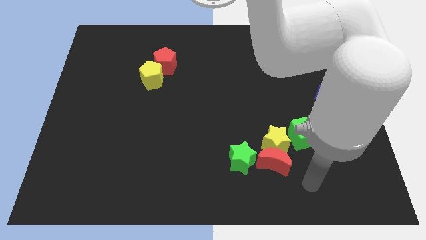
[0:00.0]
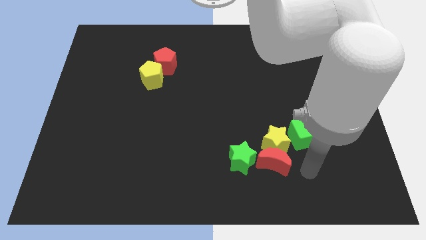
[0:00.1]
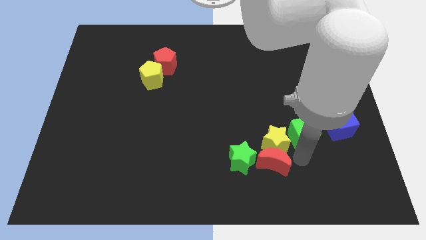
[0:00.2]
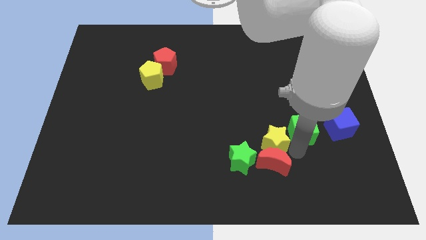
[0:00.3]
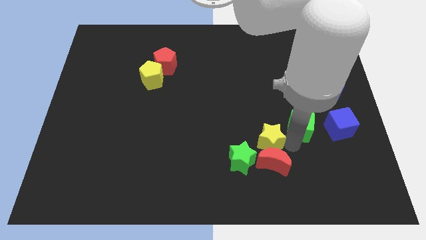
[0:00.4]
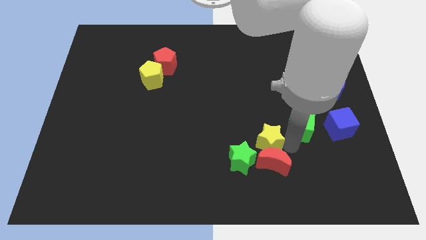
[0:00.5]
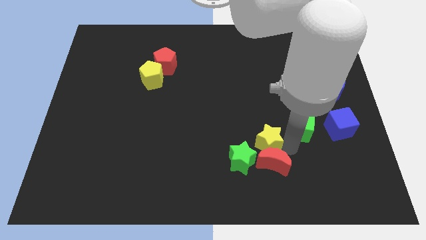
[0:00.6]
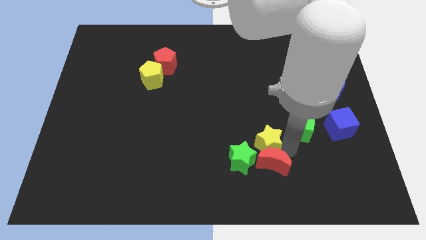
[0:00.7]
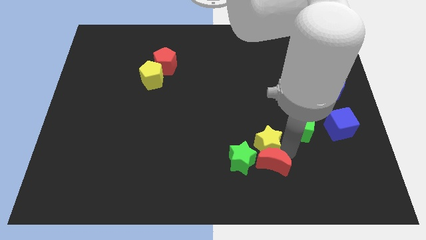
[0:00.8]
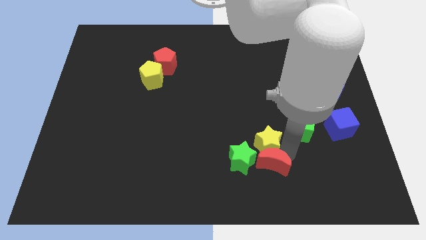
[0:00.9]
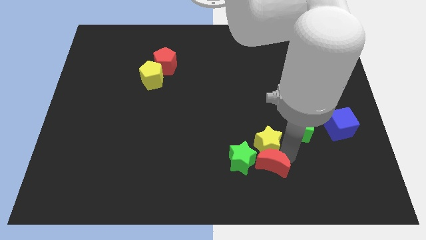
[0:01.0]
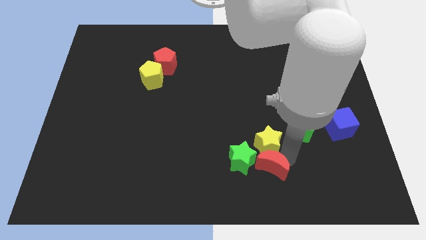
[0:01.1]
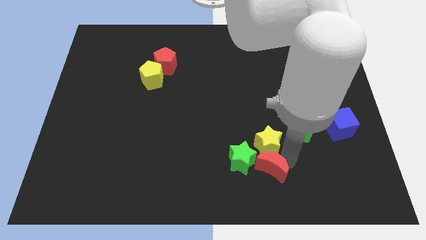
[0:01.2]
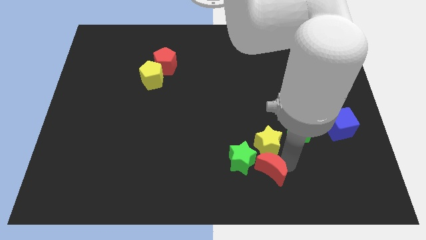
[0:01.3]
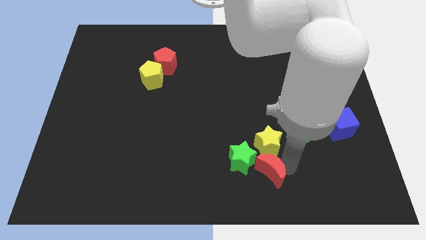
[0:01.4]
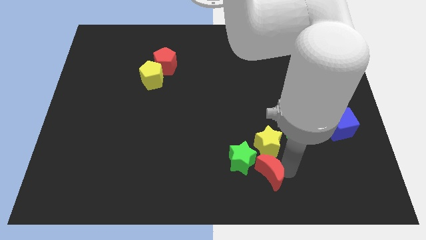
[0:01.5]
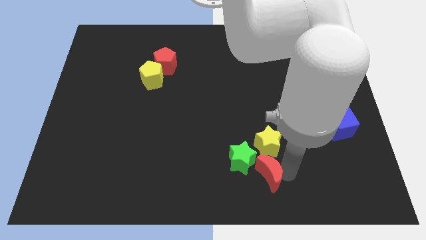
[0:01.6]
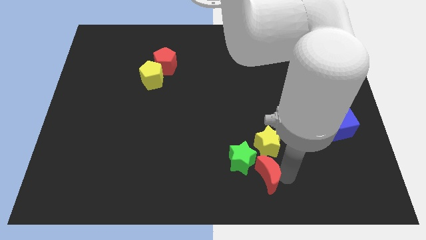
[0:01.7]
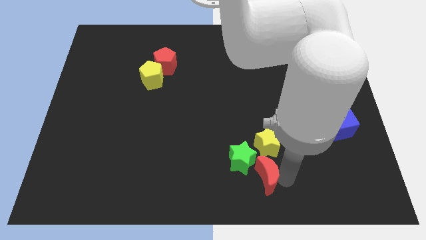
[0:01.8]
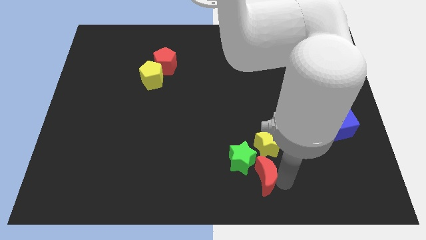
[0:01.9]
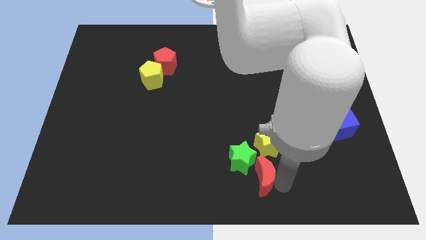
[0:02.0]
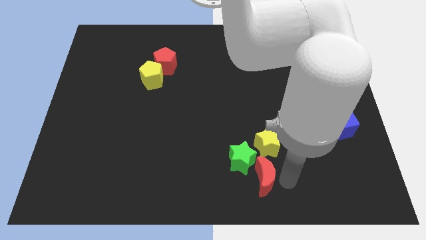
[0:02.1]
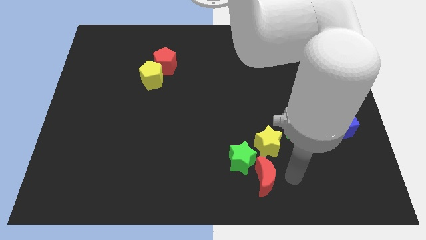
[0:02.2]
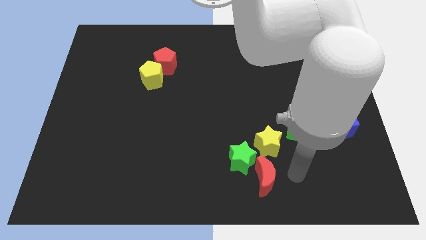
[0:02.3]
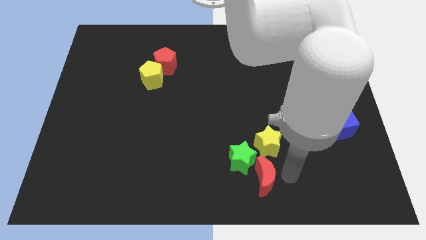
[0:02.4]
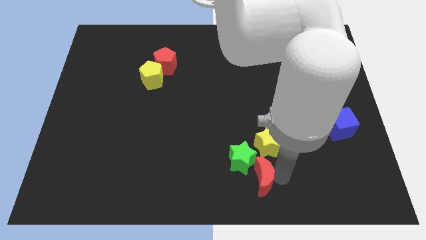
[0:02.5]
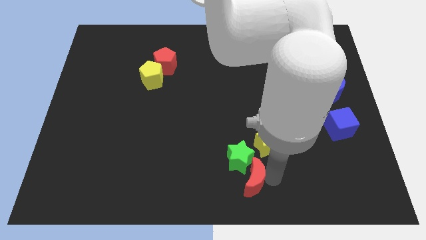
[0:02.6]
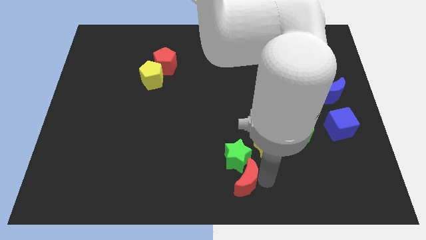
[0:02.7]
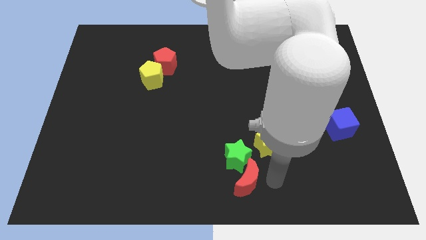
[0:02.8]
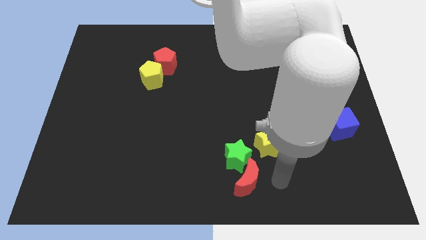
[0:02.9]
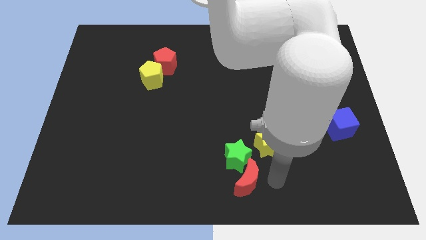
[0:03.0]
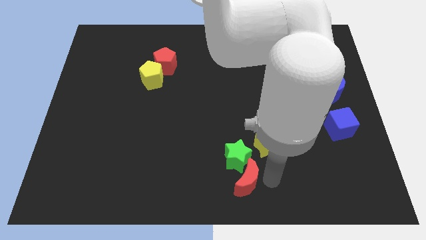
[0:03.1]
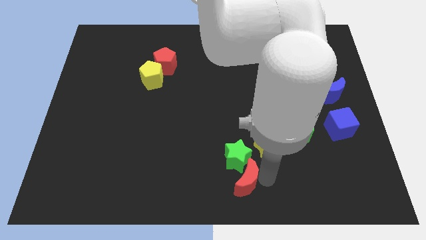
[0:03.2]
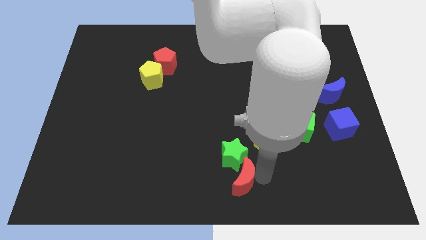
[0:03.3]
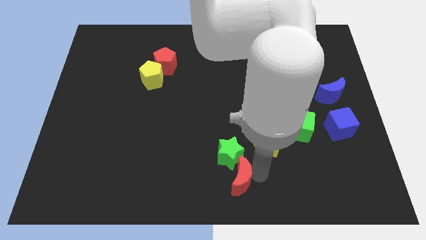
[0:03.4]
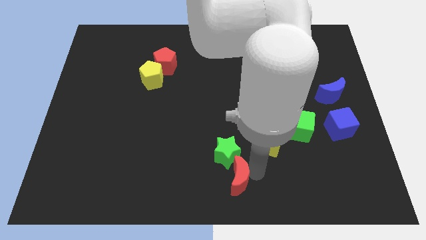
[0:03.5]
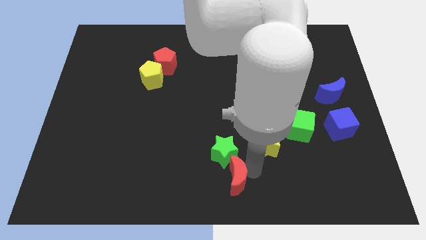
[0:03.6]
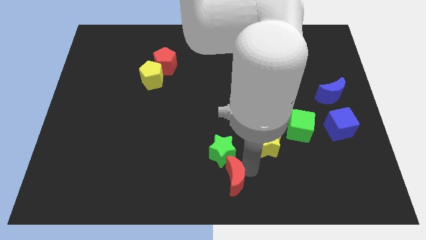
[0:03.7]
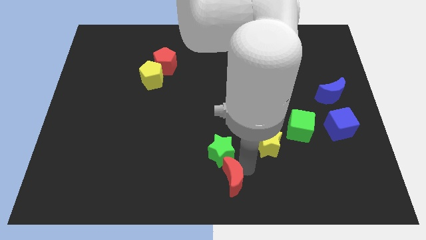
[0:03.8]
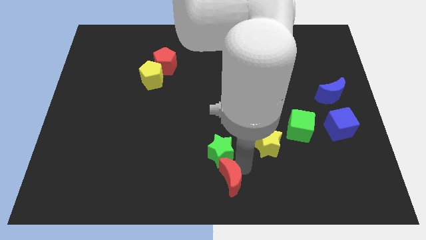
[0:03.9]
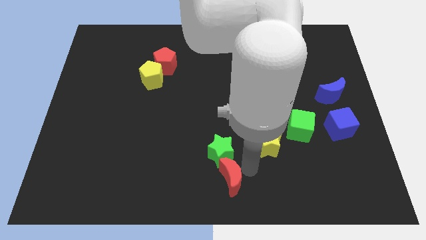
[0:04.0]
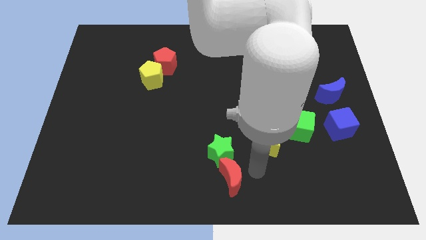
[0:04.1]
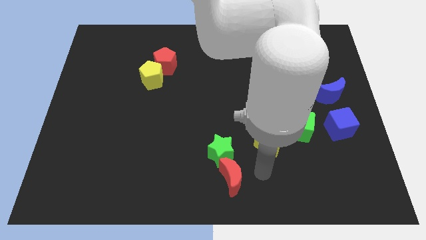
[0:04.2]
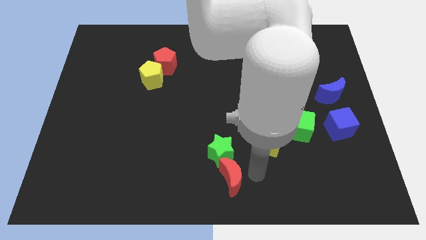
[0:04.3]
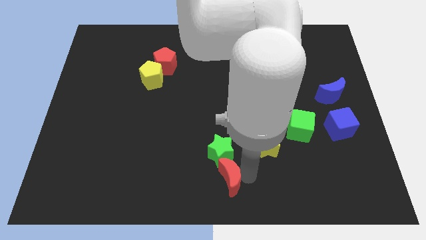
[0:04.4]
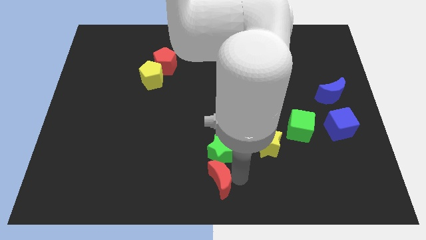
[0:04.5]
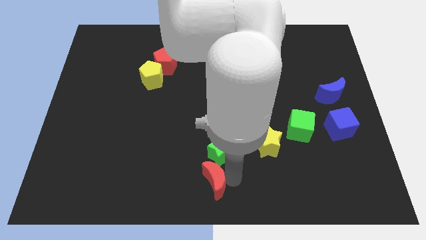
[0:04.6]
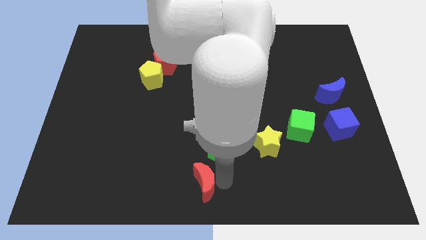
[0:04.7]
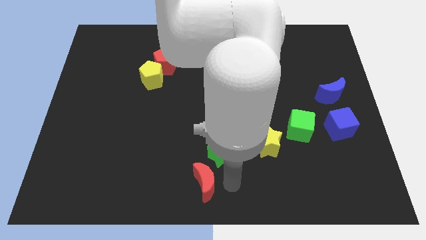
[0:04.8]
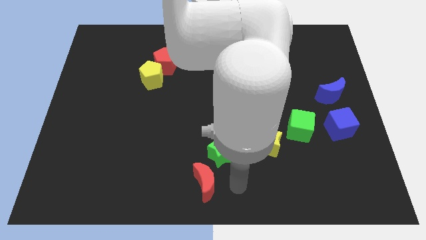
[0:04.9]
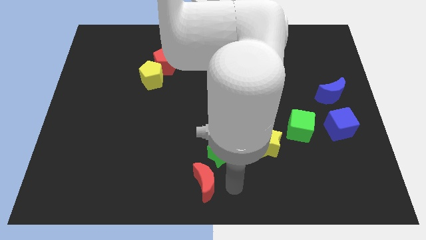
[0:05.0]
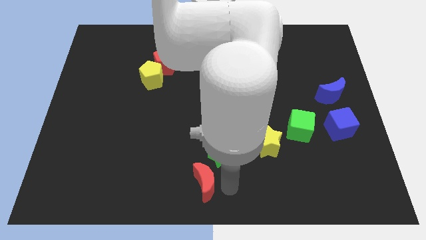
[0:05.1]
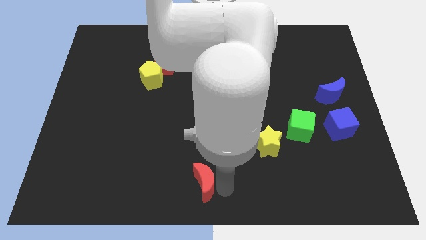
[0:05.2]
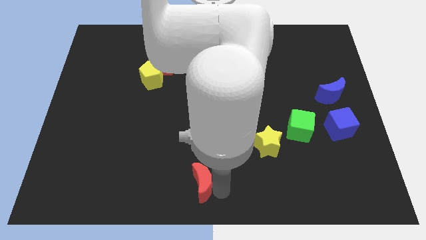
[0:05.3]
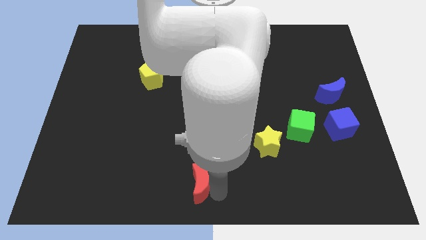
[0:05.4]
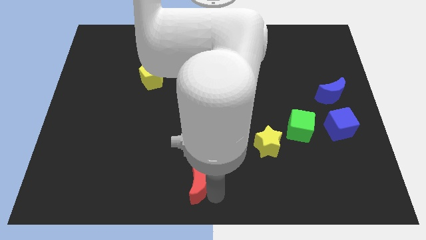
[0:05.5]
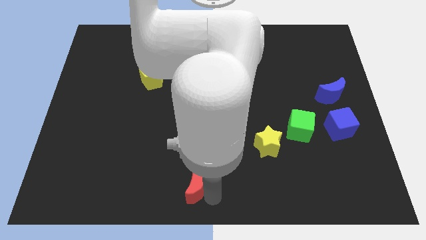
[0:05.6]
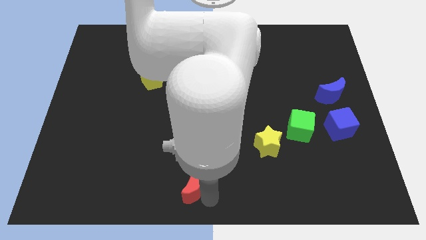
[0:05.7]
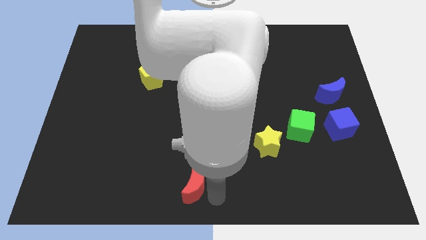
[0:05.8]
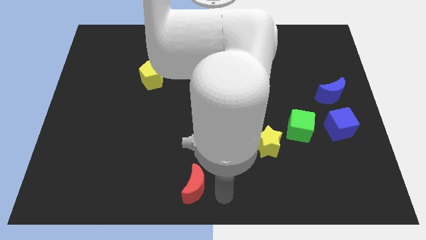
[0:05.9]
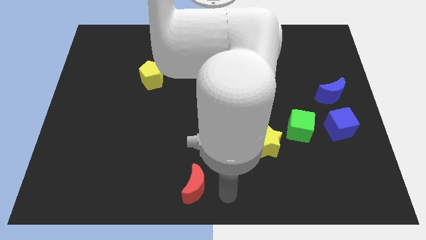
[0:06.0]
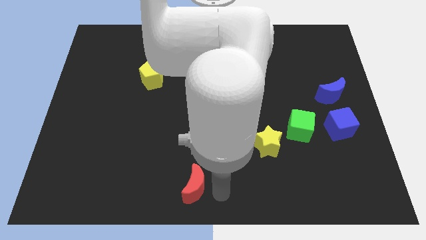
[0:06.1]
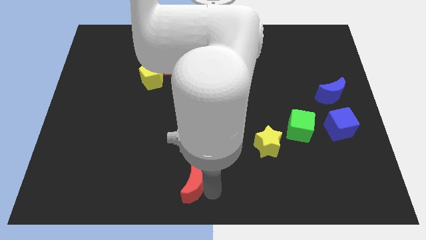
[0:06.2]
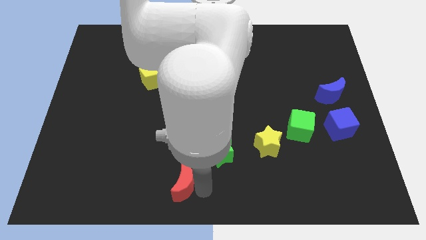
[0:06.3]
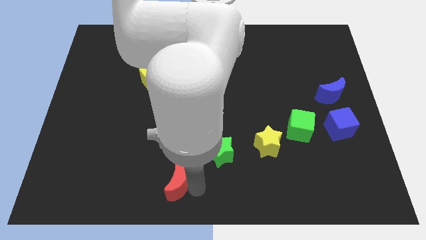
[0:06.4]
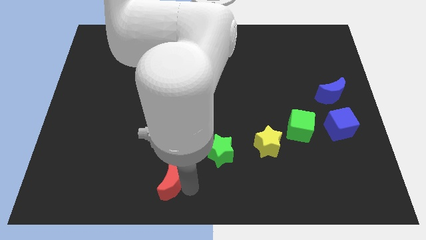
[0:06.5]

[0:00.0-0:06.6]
move the red moon left

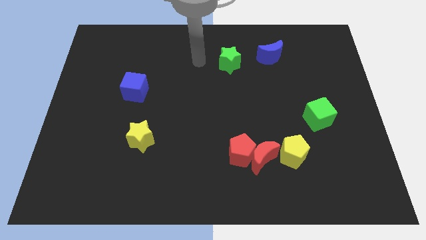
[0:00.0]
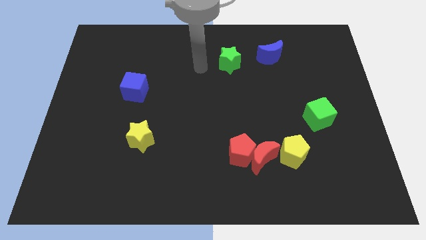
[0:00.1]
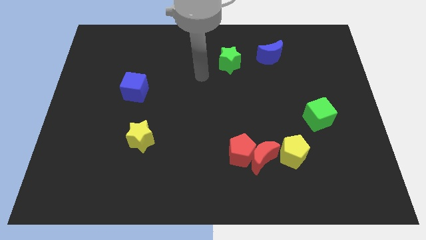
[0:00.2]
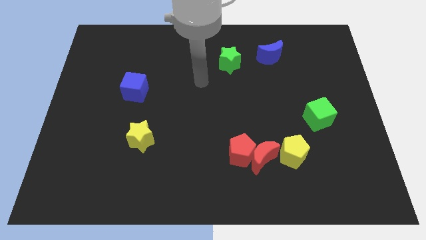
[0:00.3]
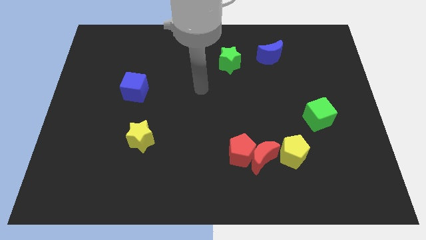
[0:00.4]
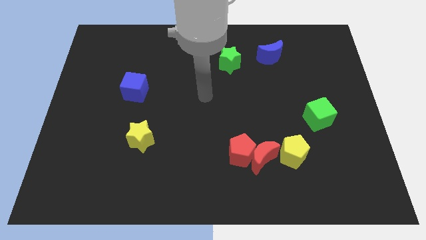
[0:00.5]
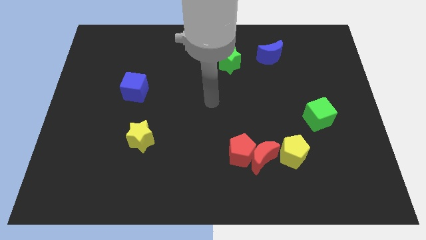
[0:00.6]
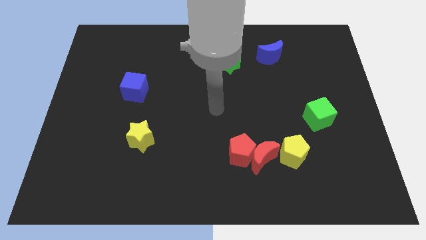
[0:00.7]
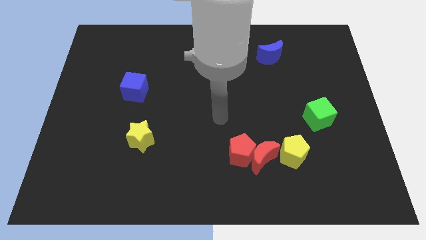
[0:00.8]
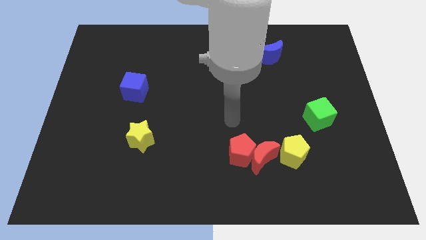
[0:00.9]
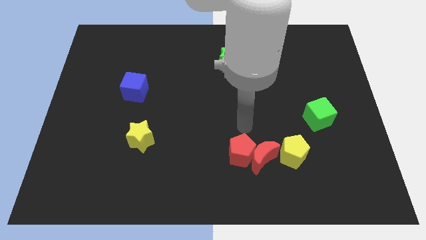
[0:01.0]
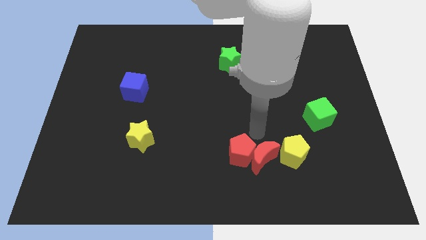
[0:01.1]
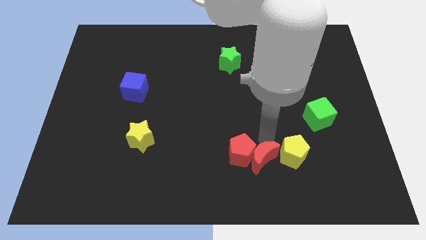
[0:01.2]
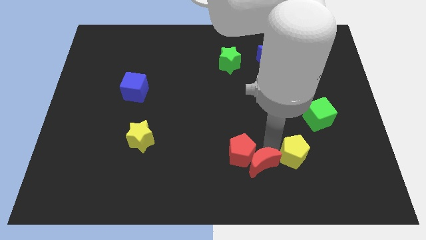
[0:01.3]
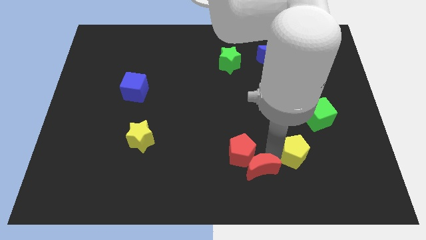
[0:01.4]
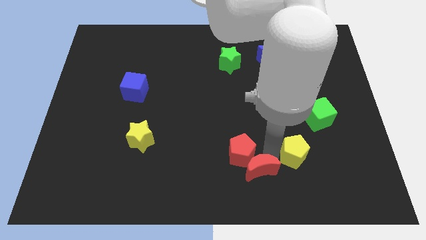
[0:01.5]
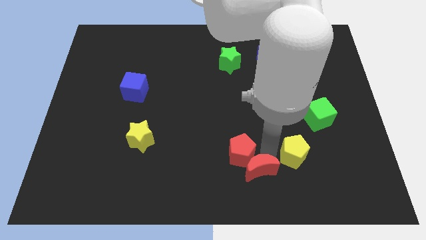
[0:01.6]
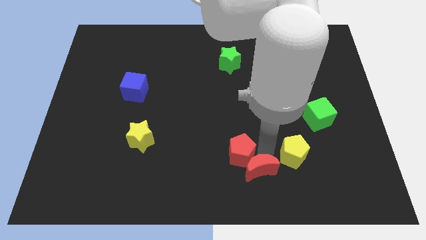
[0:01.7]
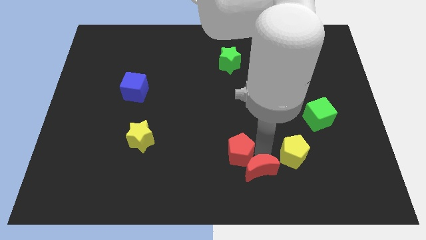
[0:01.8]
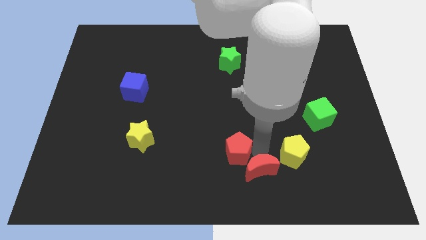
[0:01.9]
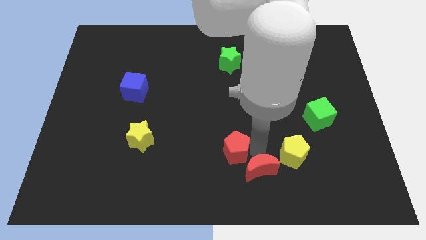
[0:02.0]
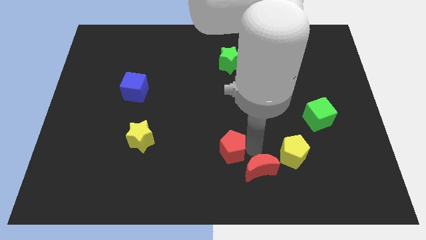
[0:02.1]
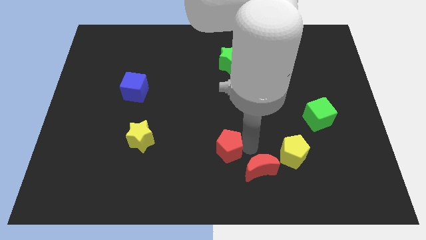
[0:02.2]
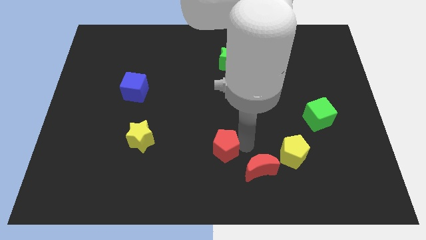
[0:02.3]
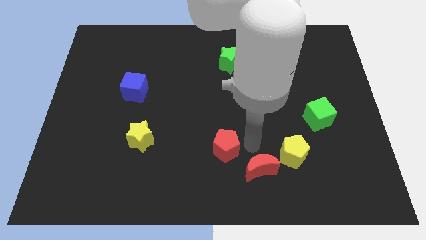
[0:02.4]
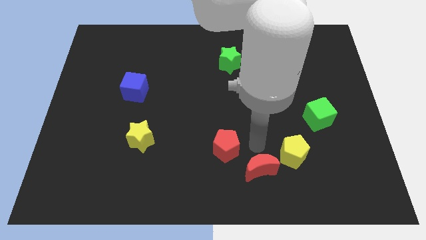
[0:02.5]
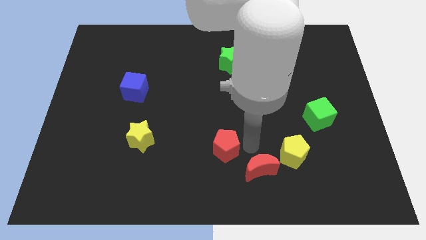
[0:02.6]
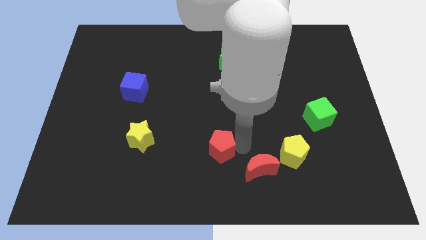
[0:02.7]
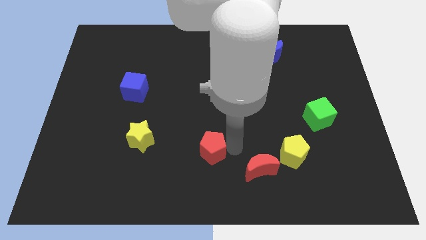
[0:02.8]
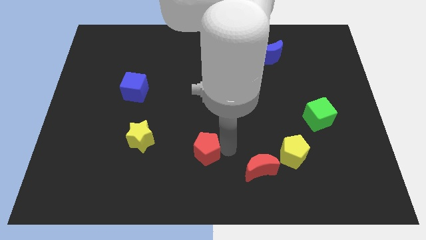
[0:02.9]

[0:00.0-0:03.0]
move the red pentagon left slightly
